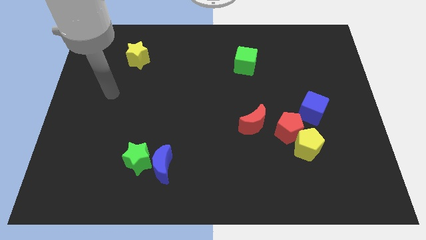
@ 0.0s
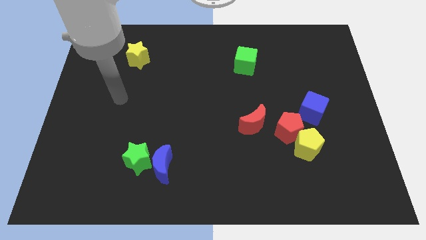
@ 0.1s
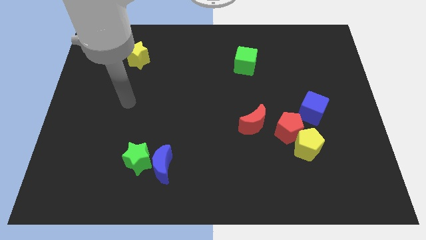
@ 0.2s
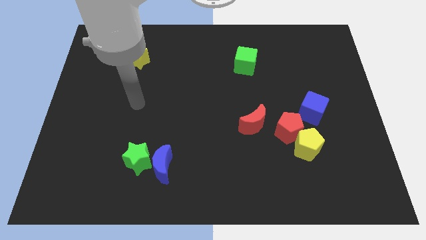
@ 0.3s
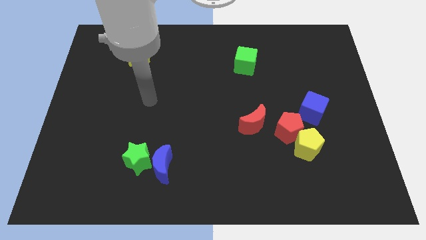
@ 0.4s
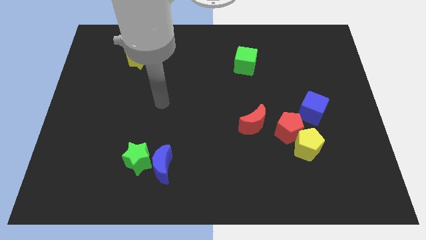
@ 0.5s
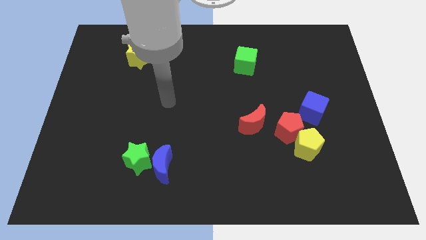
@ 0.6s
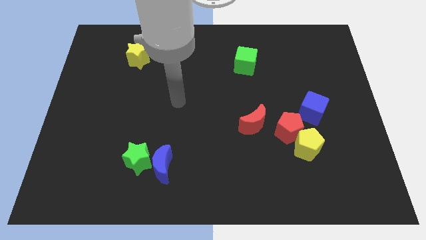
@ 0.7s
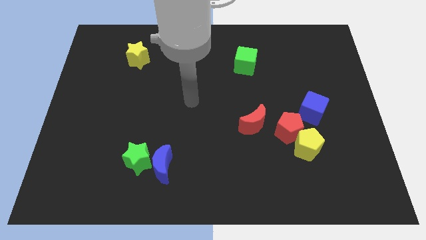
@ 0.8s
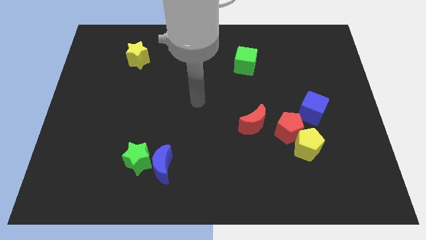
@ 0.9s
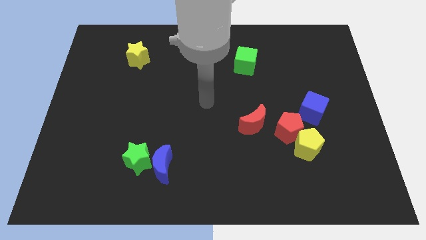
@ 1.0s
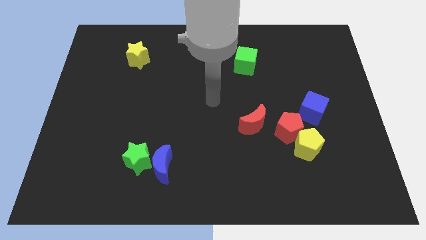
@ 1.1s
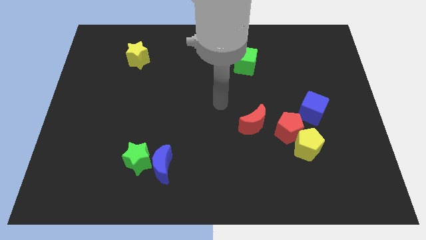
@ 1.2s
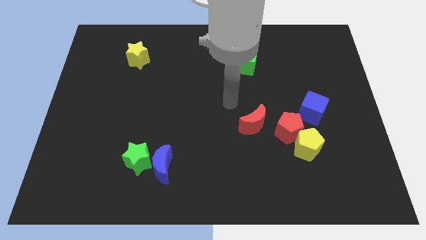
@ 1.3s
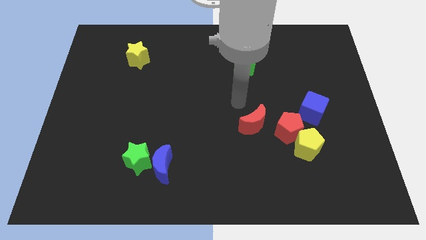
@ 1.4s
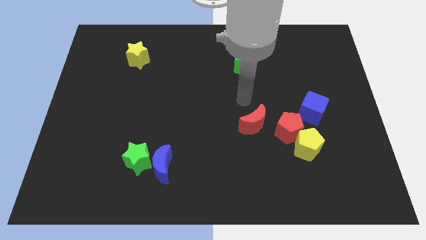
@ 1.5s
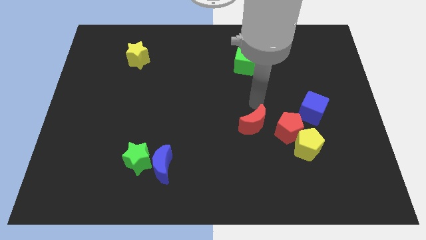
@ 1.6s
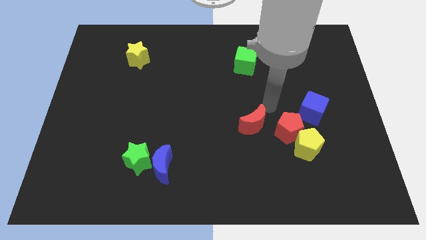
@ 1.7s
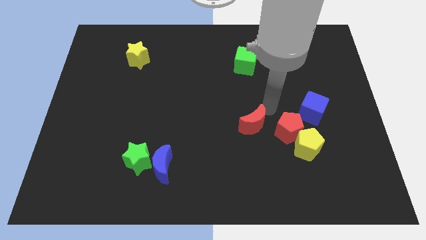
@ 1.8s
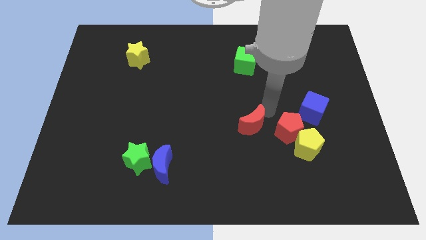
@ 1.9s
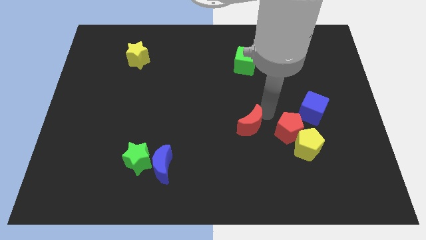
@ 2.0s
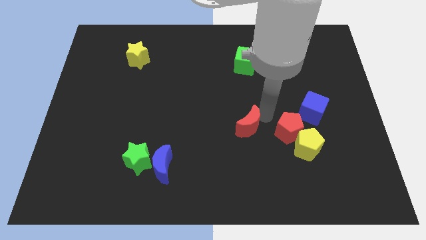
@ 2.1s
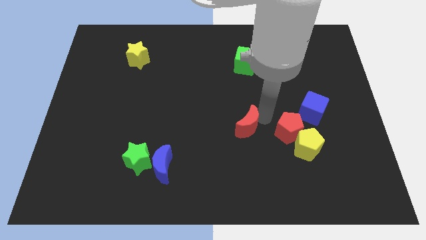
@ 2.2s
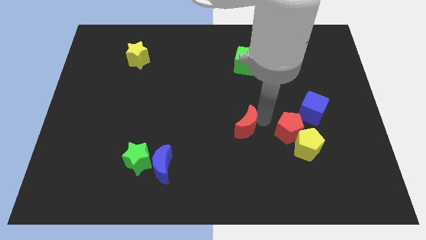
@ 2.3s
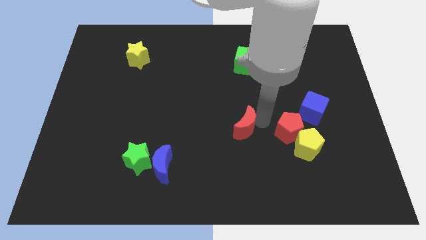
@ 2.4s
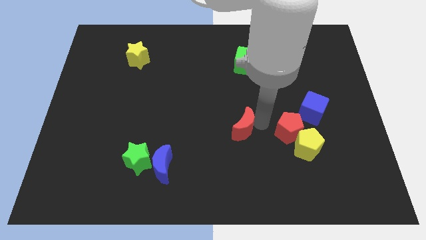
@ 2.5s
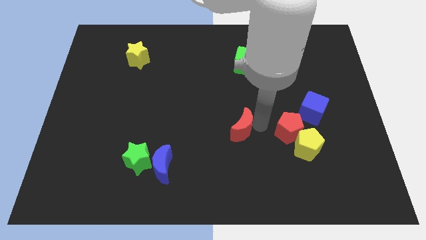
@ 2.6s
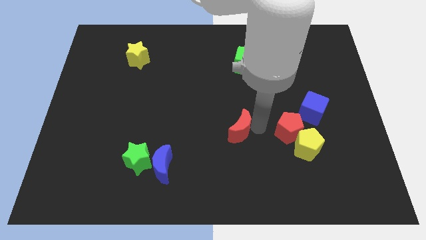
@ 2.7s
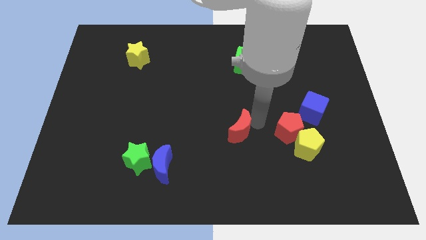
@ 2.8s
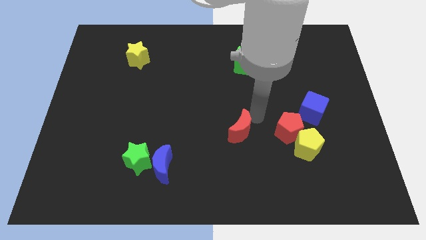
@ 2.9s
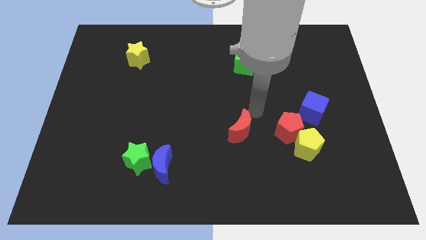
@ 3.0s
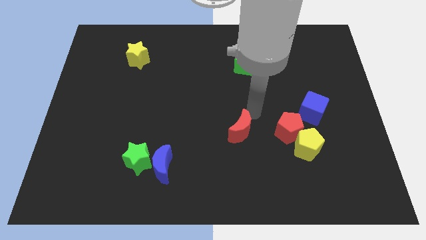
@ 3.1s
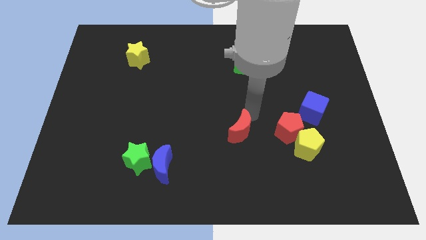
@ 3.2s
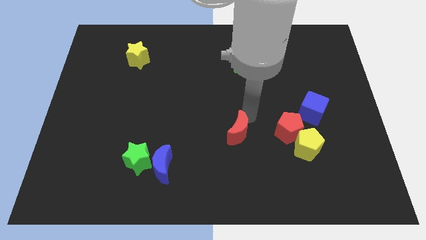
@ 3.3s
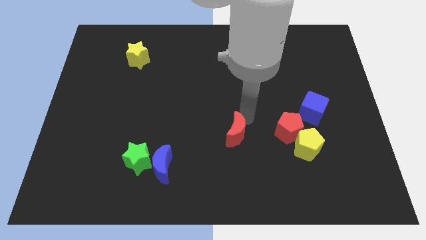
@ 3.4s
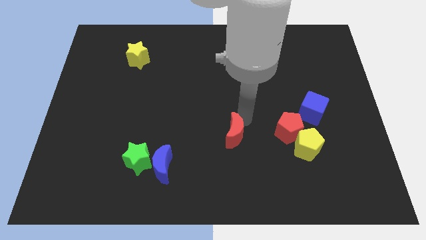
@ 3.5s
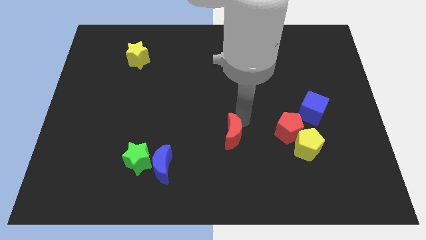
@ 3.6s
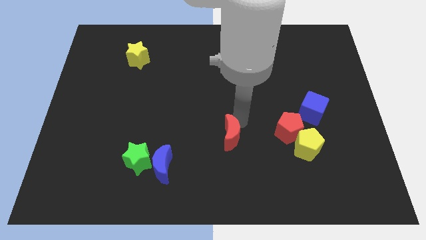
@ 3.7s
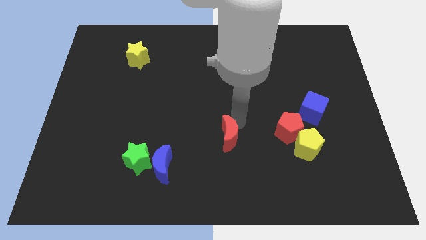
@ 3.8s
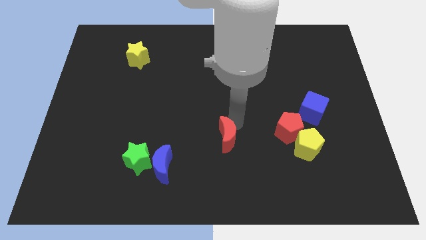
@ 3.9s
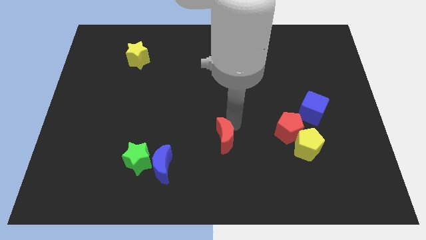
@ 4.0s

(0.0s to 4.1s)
move the red moon somewhat down and to the left diagonally

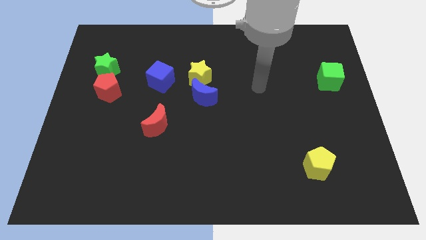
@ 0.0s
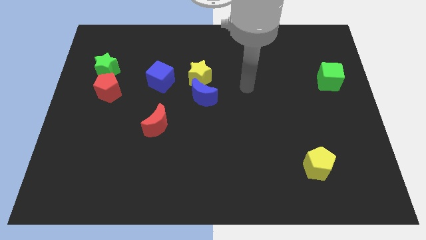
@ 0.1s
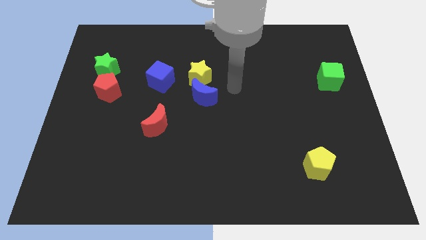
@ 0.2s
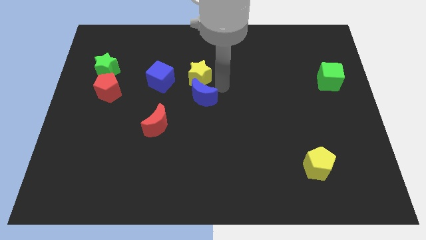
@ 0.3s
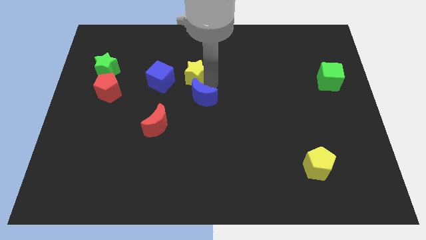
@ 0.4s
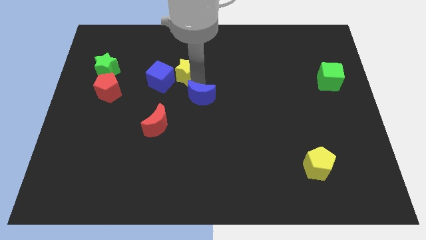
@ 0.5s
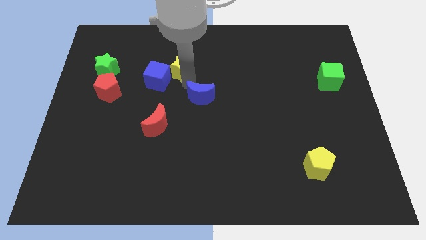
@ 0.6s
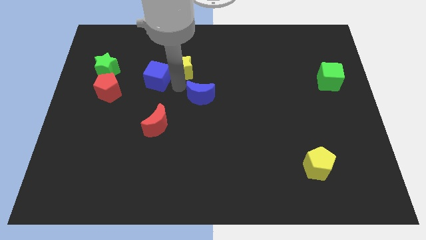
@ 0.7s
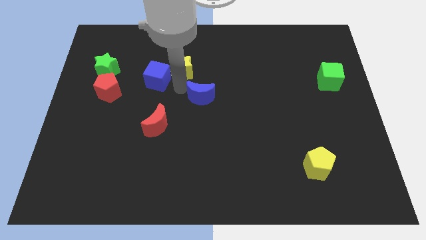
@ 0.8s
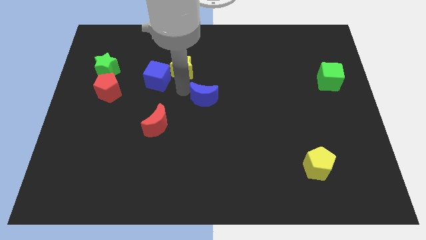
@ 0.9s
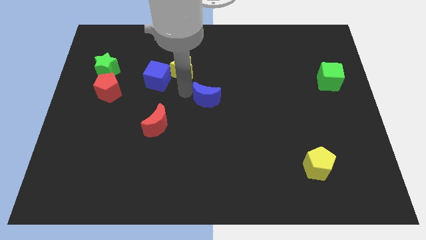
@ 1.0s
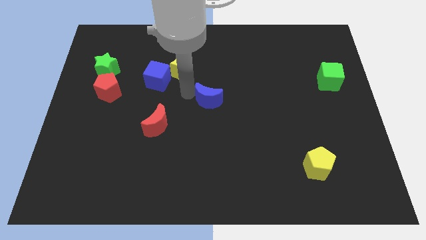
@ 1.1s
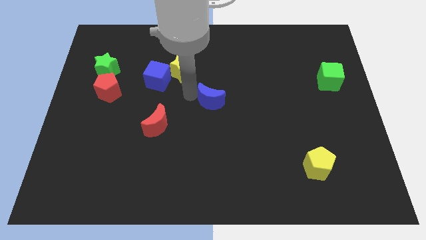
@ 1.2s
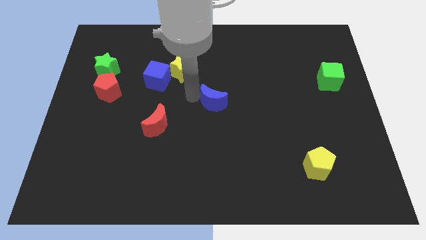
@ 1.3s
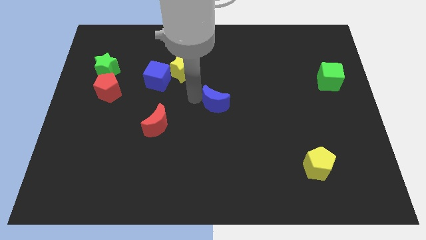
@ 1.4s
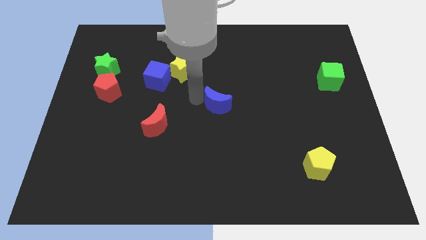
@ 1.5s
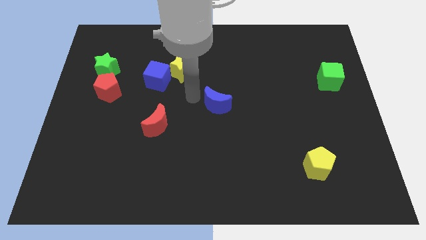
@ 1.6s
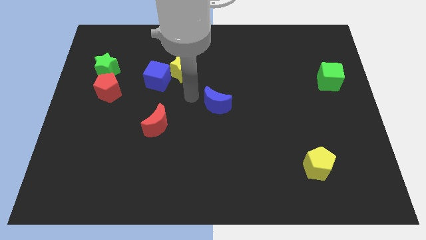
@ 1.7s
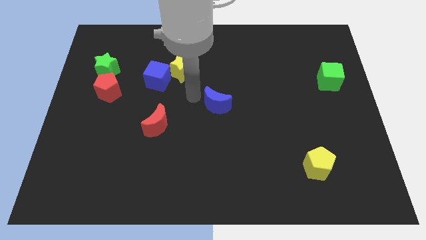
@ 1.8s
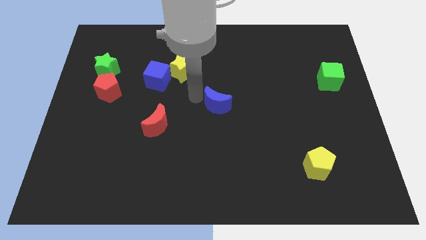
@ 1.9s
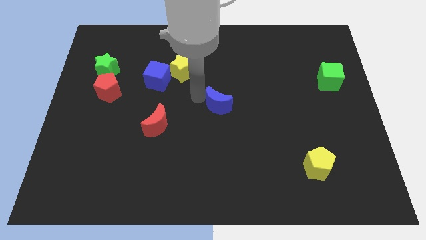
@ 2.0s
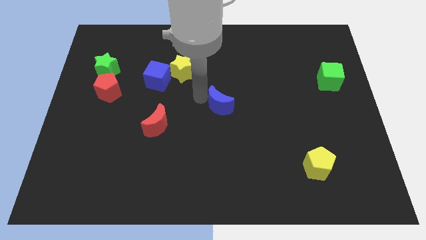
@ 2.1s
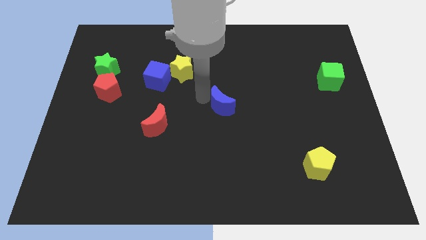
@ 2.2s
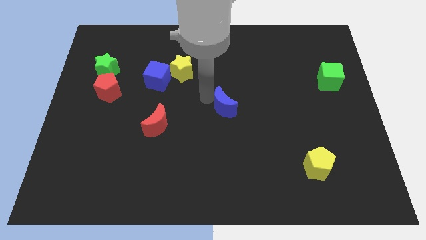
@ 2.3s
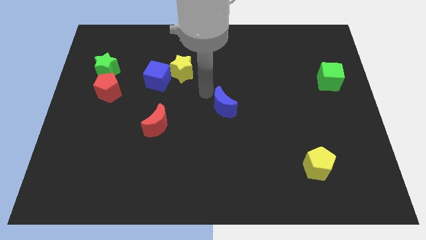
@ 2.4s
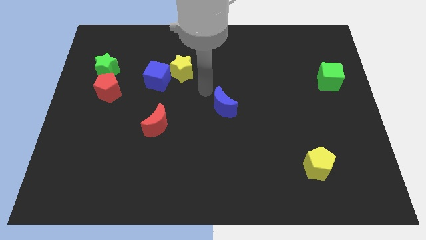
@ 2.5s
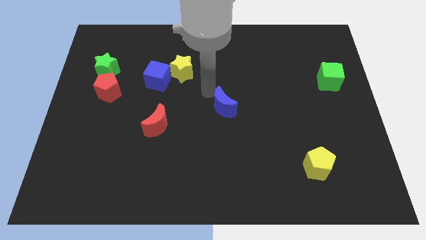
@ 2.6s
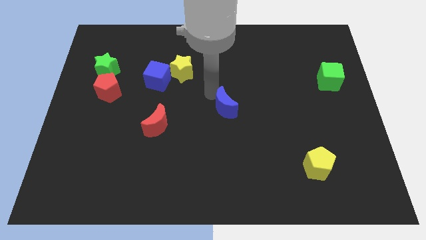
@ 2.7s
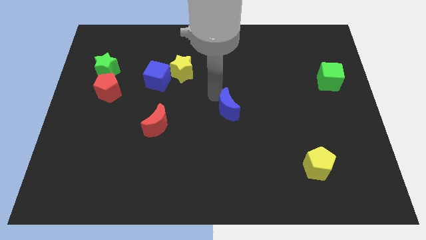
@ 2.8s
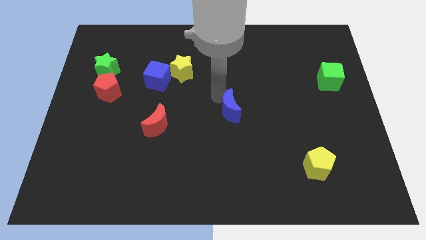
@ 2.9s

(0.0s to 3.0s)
slightly move the blue moon down and right diagonally

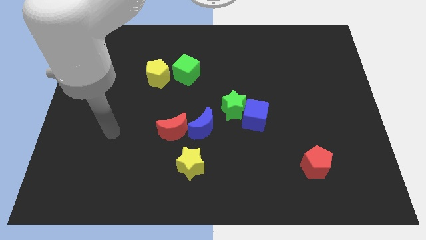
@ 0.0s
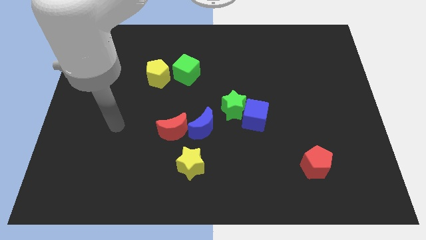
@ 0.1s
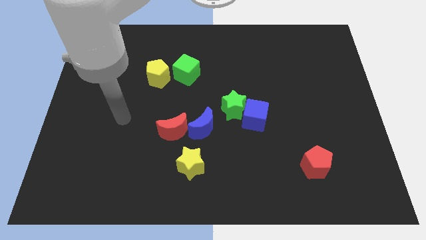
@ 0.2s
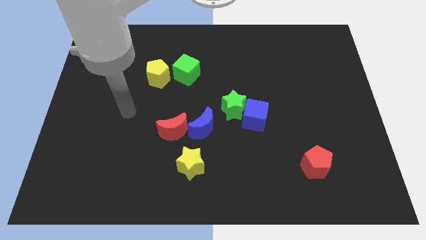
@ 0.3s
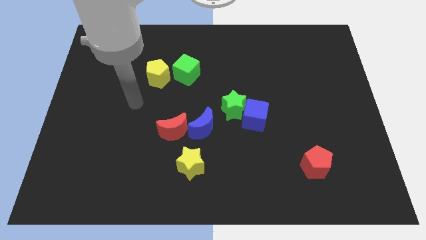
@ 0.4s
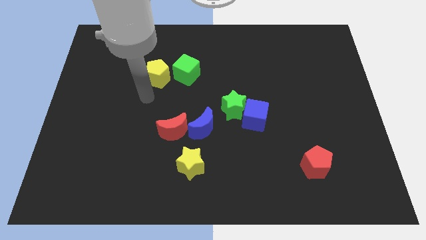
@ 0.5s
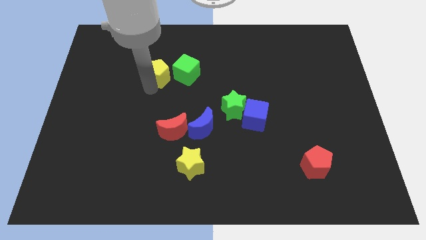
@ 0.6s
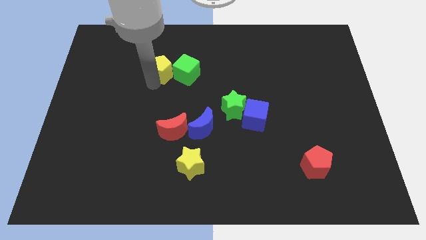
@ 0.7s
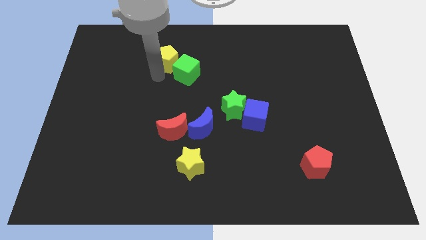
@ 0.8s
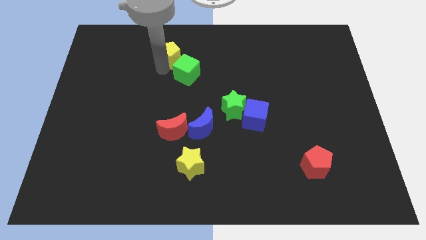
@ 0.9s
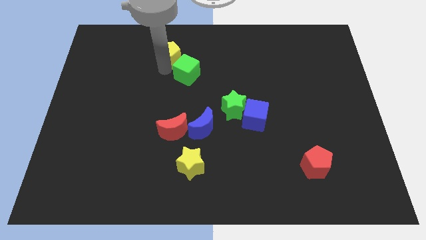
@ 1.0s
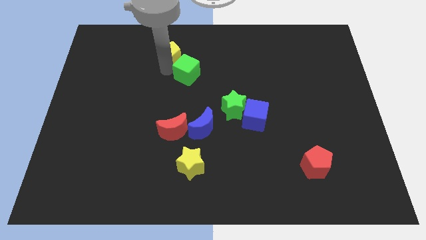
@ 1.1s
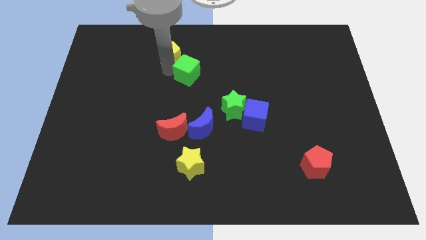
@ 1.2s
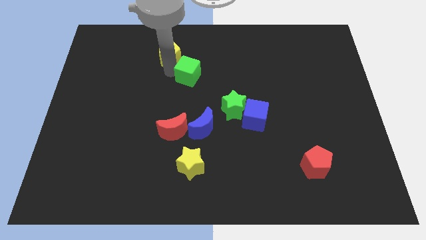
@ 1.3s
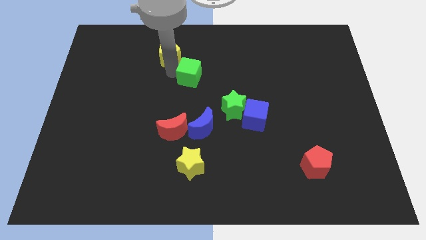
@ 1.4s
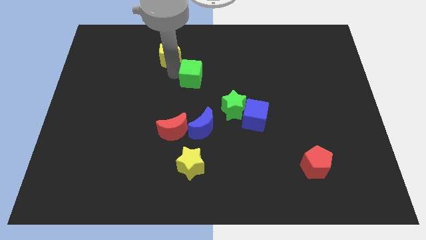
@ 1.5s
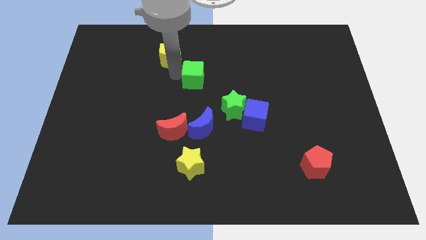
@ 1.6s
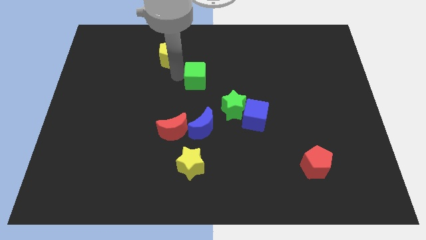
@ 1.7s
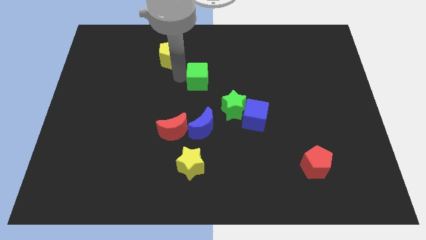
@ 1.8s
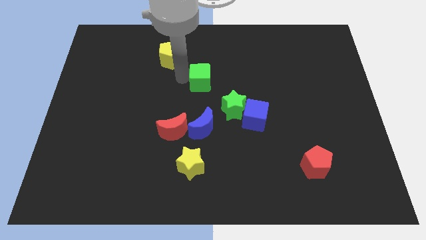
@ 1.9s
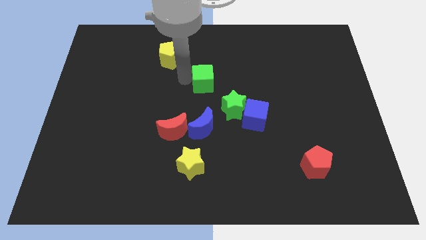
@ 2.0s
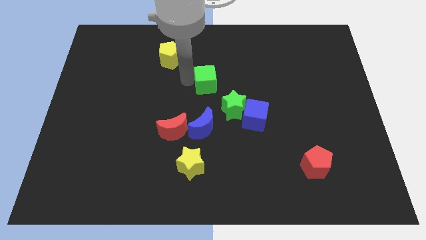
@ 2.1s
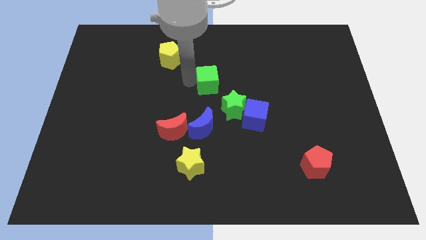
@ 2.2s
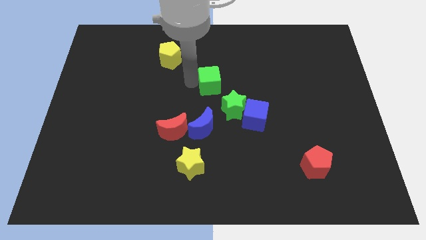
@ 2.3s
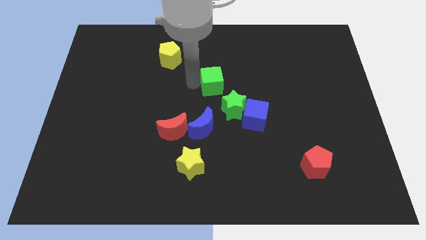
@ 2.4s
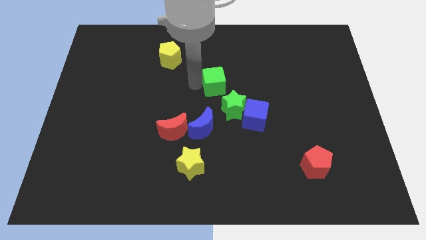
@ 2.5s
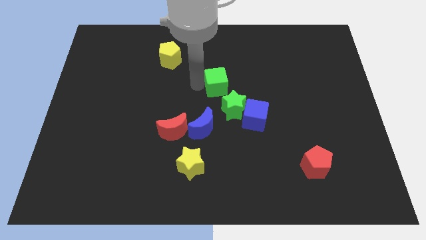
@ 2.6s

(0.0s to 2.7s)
slightly slide the green cube to the right
